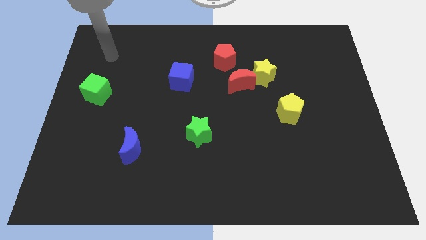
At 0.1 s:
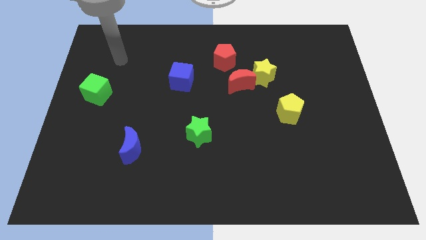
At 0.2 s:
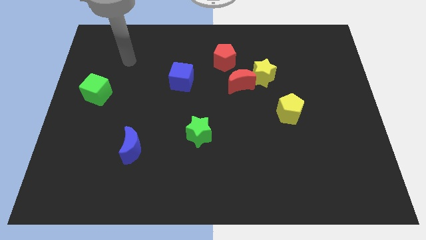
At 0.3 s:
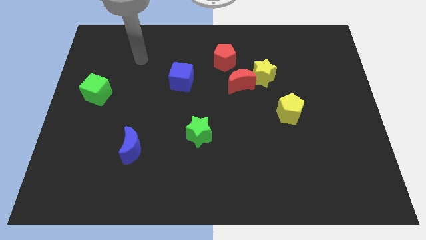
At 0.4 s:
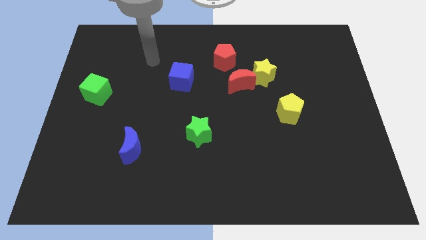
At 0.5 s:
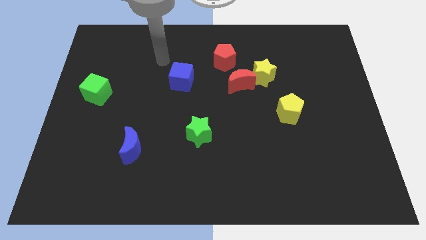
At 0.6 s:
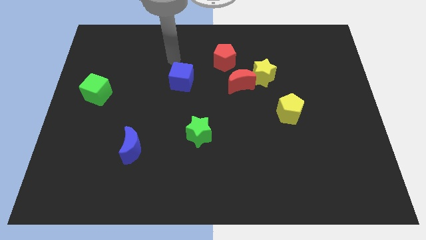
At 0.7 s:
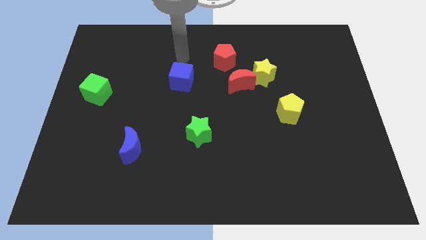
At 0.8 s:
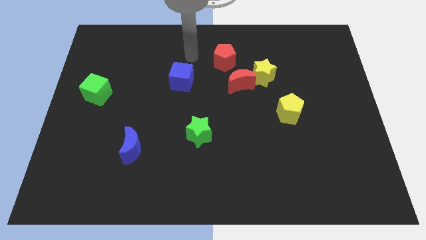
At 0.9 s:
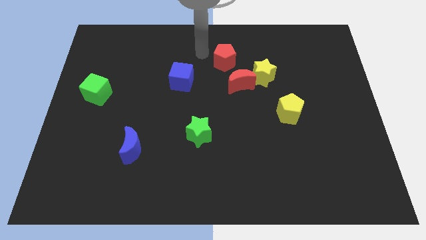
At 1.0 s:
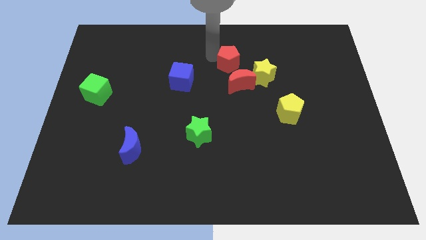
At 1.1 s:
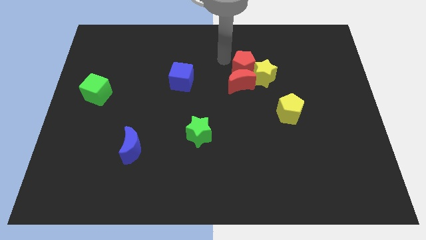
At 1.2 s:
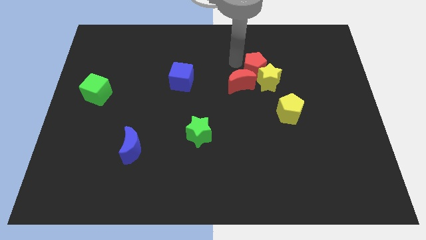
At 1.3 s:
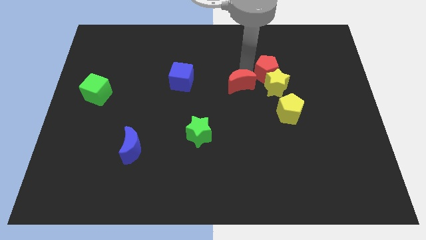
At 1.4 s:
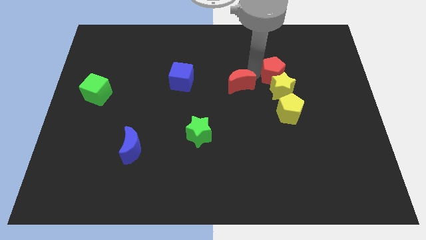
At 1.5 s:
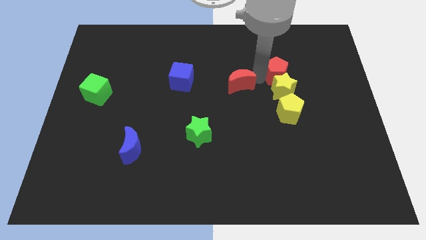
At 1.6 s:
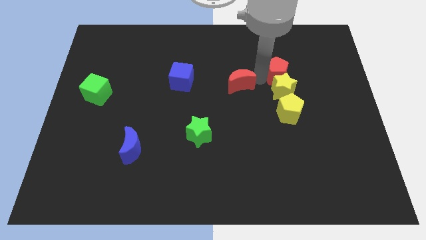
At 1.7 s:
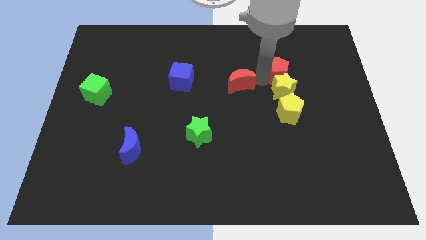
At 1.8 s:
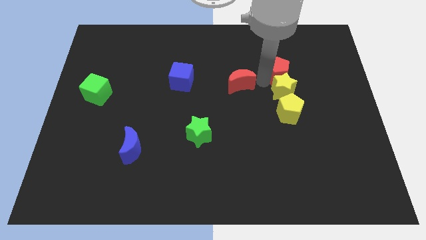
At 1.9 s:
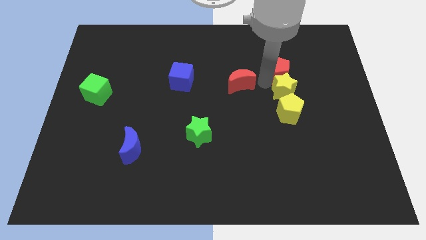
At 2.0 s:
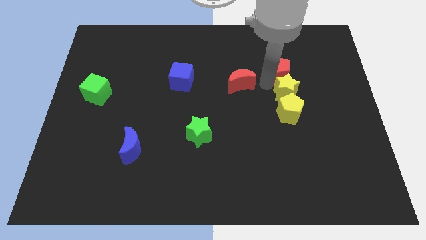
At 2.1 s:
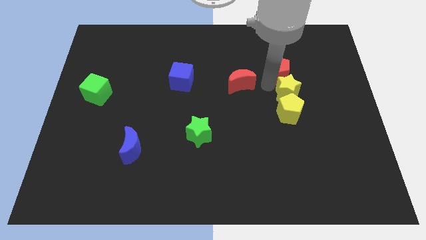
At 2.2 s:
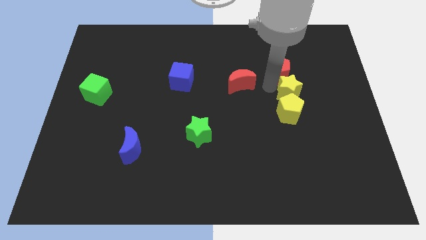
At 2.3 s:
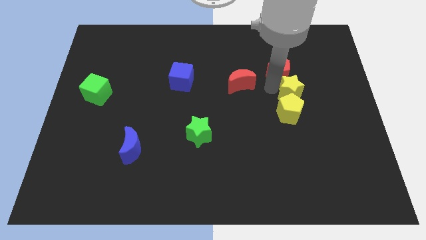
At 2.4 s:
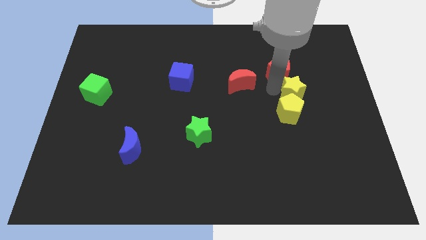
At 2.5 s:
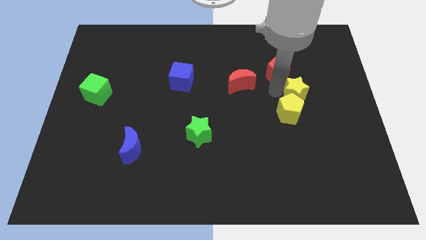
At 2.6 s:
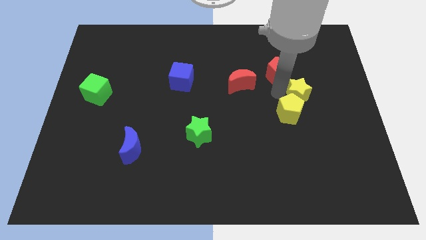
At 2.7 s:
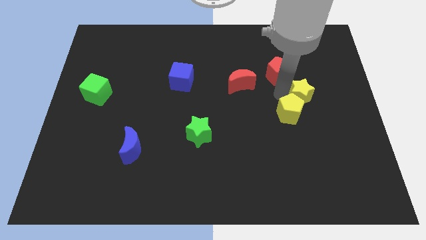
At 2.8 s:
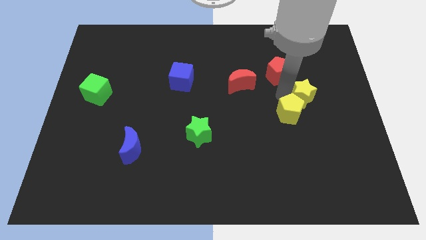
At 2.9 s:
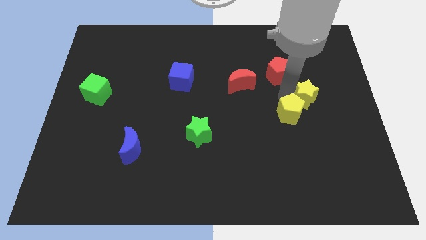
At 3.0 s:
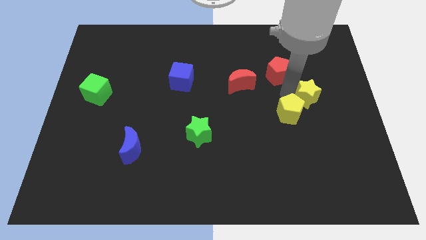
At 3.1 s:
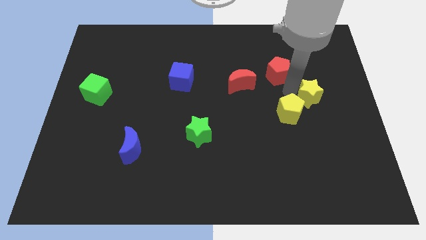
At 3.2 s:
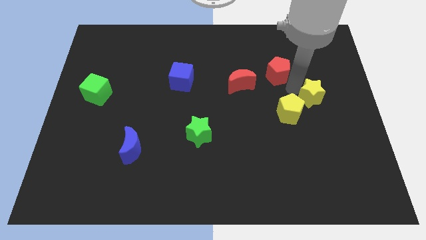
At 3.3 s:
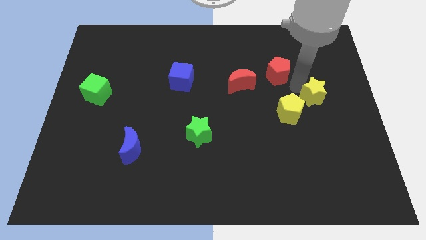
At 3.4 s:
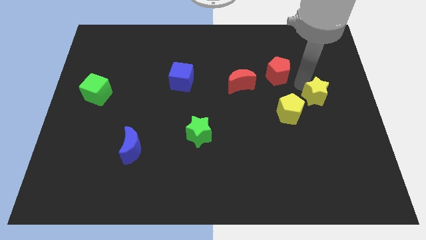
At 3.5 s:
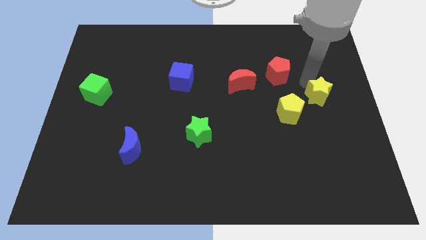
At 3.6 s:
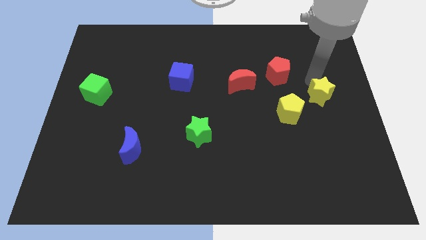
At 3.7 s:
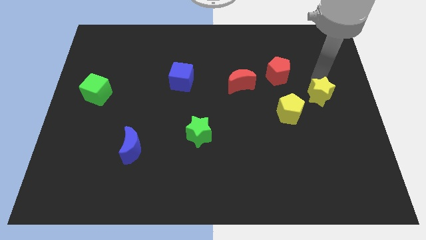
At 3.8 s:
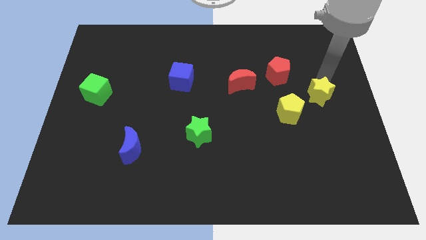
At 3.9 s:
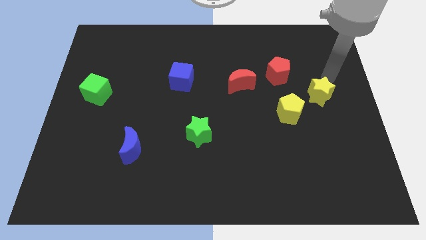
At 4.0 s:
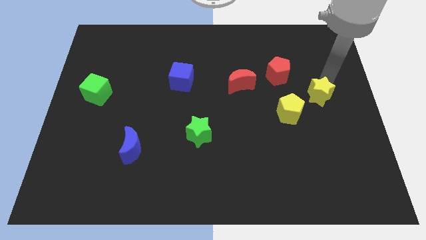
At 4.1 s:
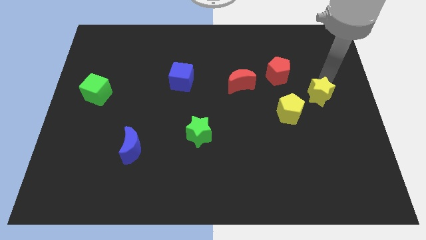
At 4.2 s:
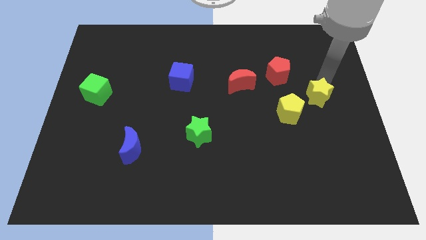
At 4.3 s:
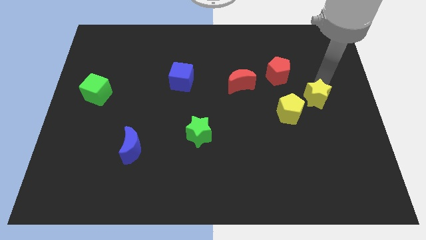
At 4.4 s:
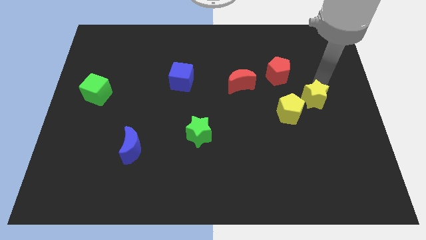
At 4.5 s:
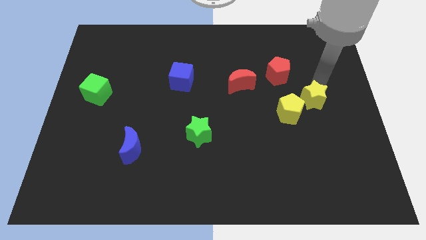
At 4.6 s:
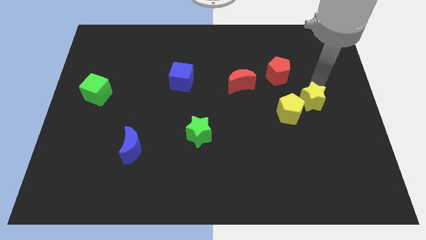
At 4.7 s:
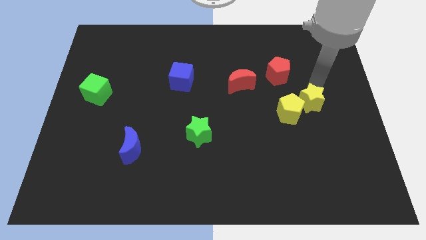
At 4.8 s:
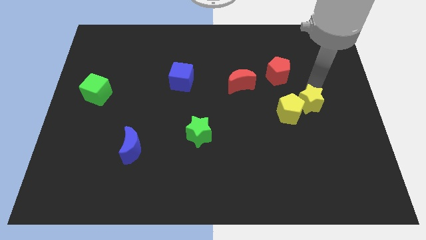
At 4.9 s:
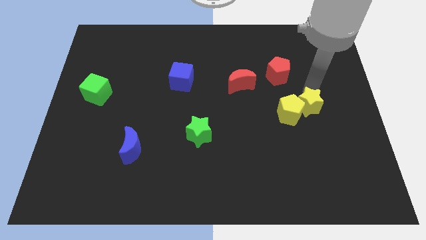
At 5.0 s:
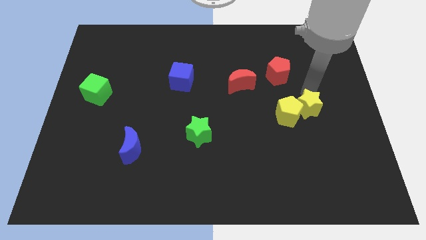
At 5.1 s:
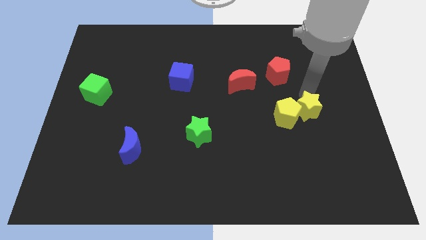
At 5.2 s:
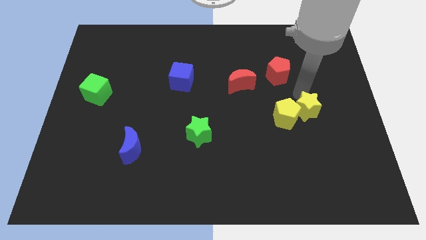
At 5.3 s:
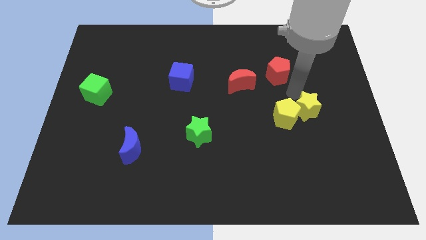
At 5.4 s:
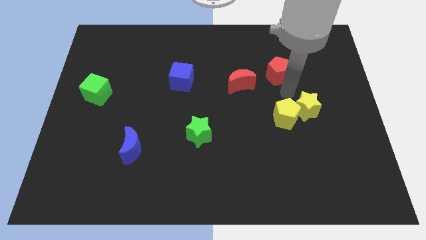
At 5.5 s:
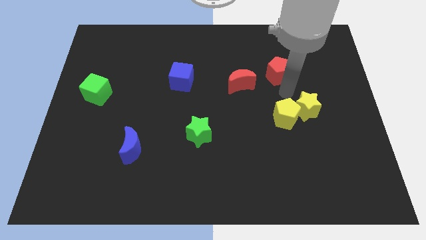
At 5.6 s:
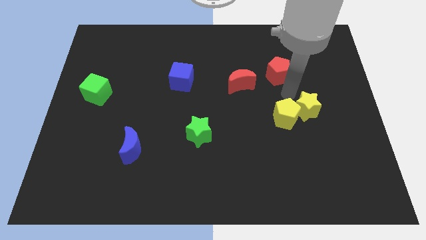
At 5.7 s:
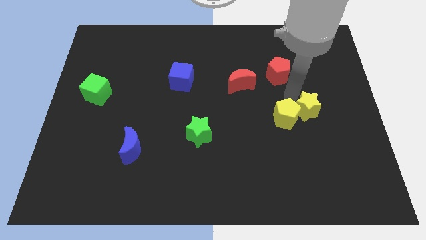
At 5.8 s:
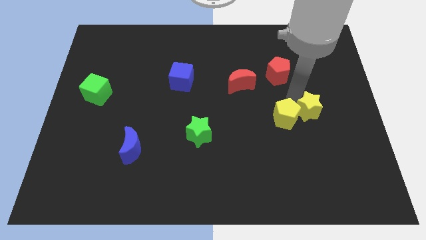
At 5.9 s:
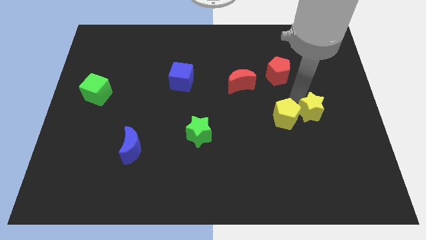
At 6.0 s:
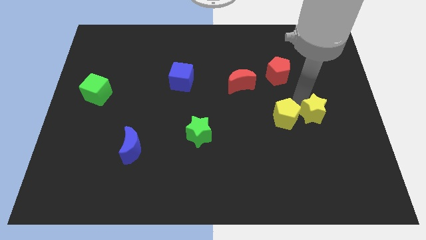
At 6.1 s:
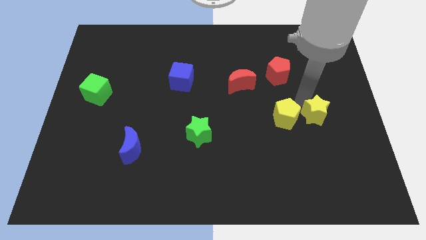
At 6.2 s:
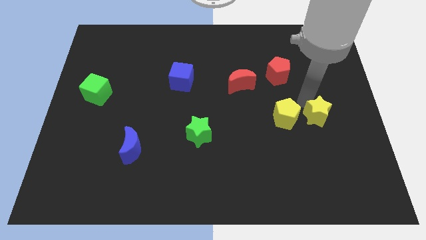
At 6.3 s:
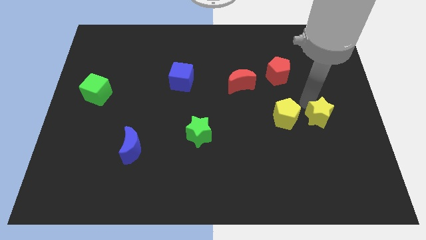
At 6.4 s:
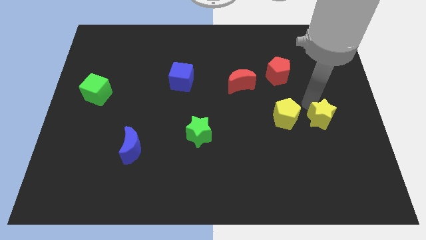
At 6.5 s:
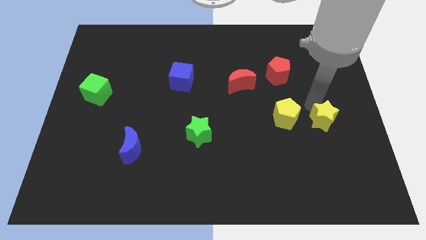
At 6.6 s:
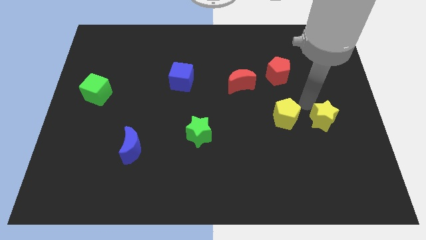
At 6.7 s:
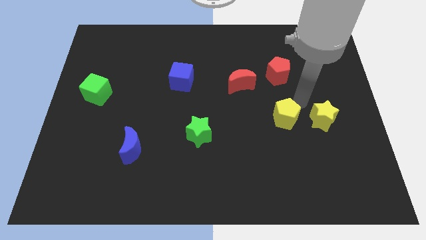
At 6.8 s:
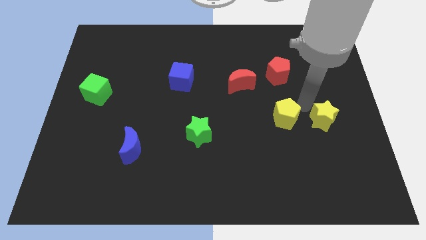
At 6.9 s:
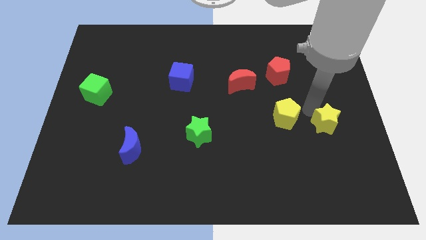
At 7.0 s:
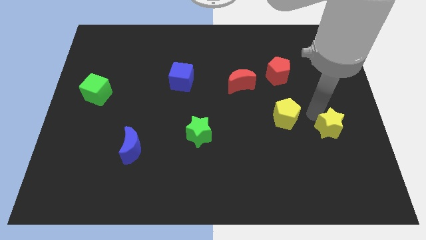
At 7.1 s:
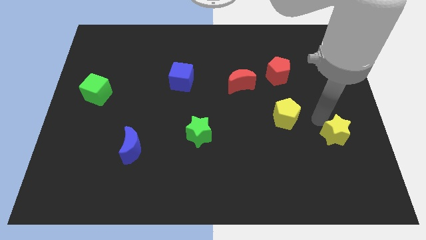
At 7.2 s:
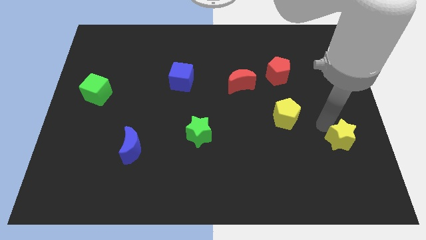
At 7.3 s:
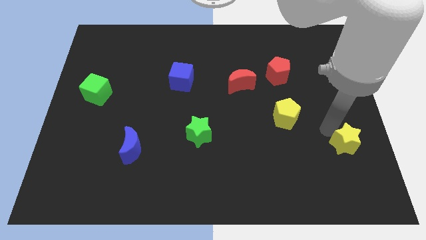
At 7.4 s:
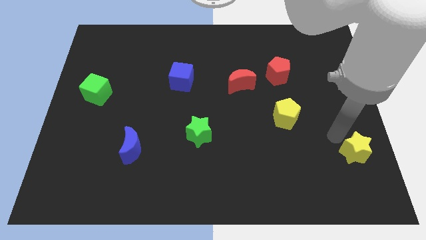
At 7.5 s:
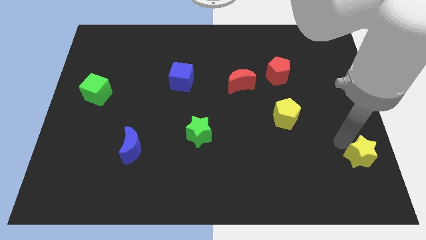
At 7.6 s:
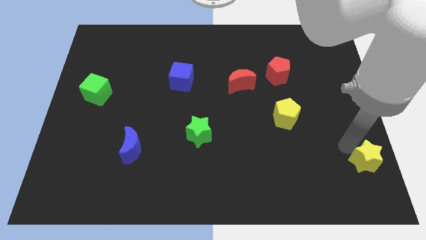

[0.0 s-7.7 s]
push the yellow star to the bottom right of the board
